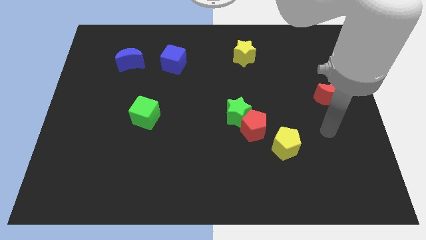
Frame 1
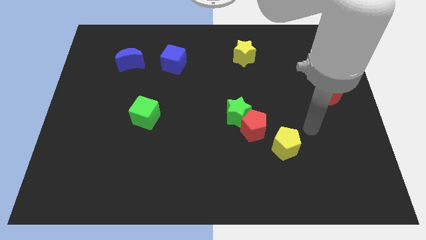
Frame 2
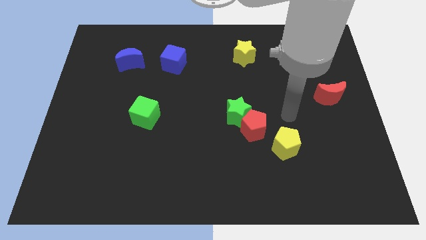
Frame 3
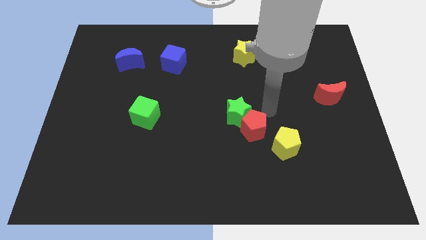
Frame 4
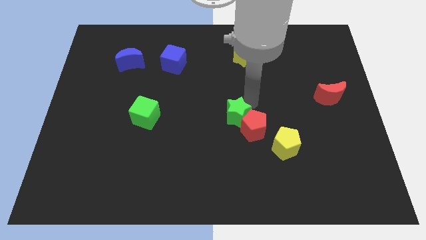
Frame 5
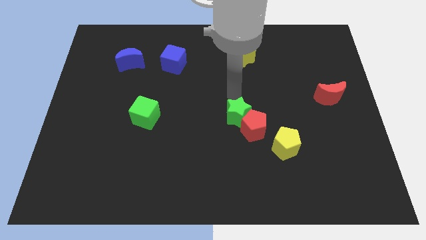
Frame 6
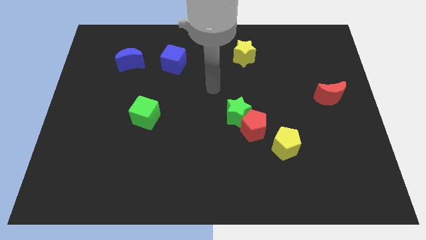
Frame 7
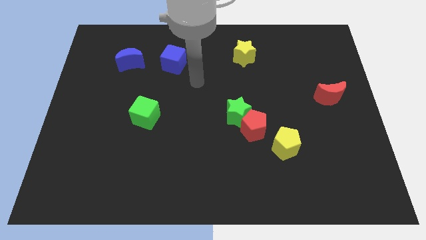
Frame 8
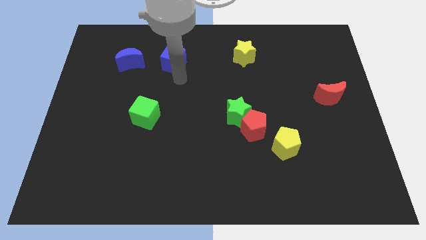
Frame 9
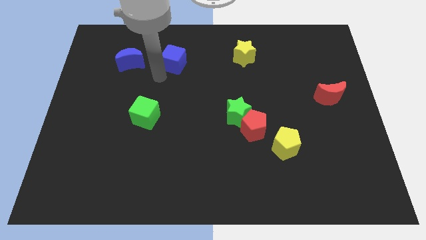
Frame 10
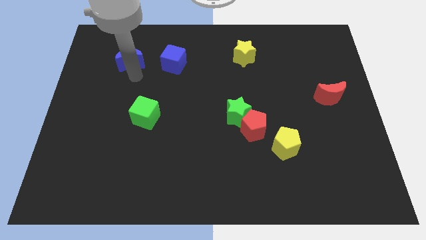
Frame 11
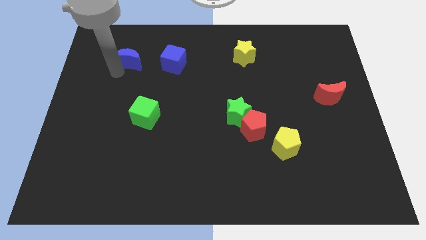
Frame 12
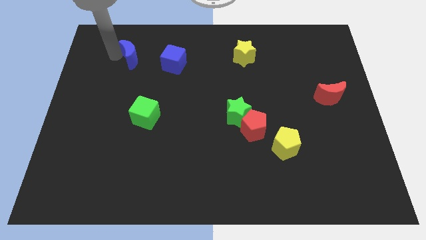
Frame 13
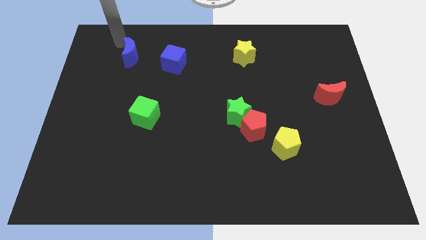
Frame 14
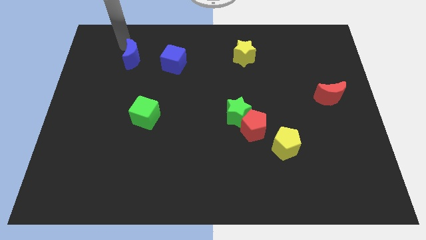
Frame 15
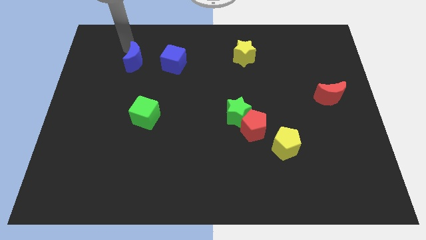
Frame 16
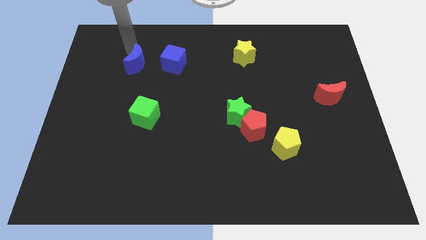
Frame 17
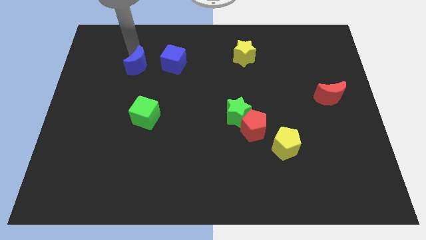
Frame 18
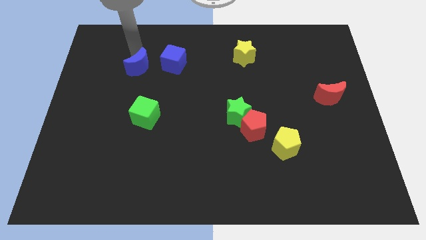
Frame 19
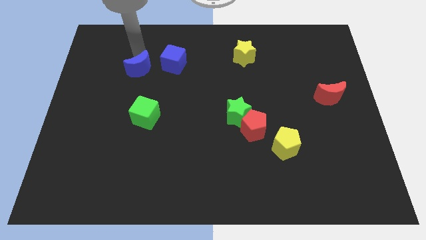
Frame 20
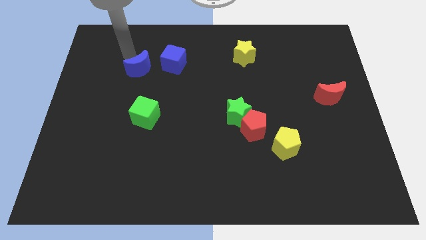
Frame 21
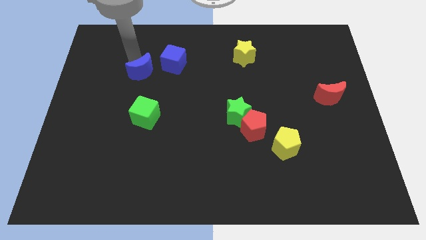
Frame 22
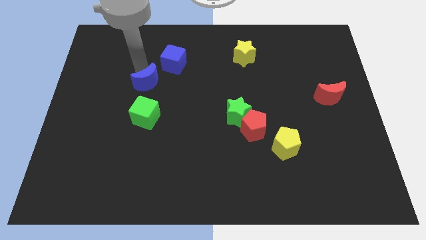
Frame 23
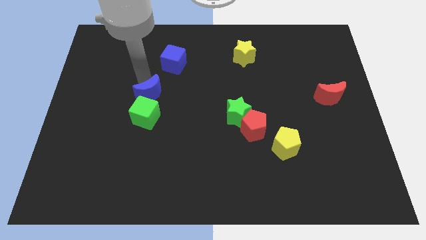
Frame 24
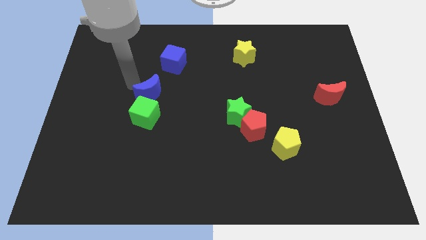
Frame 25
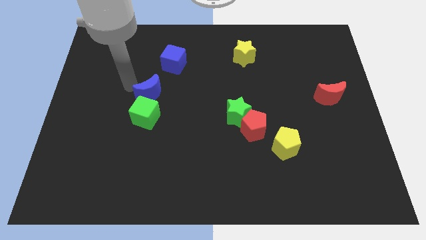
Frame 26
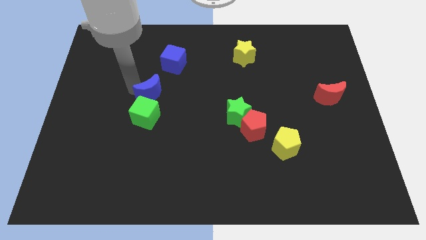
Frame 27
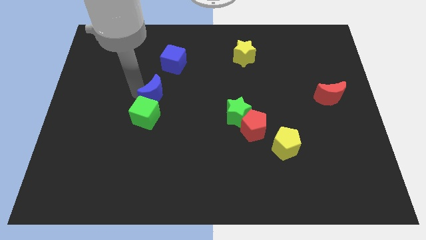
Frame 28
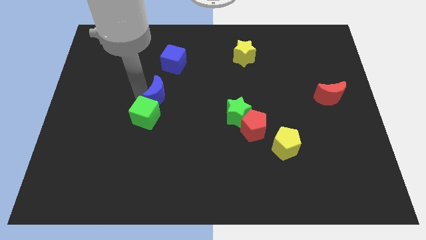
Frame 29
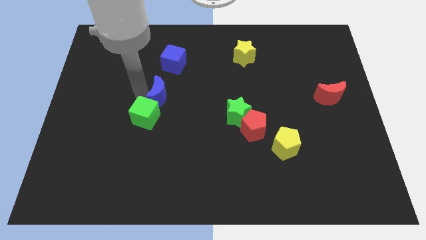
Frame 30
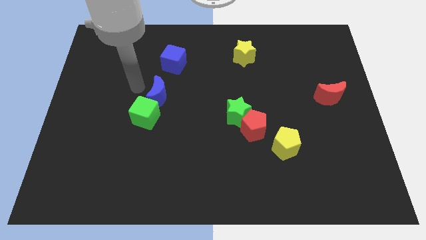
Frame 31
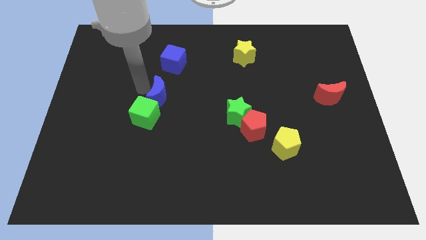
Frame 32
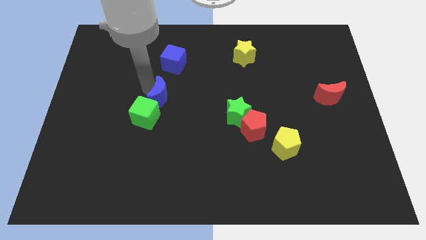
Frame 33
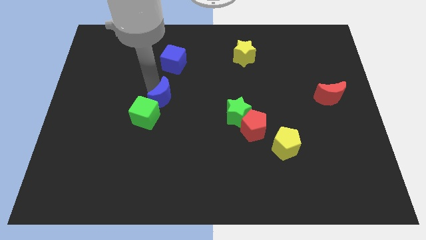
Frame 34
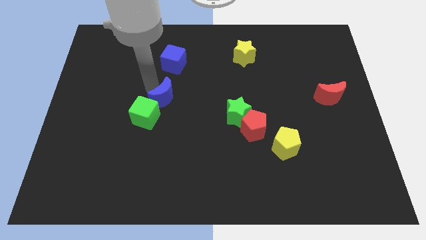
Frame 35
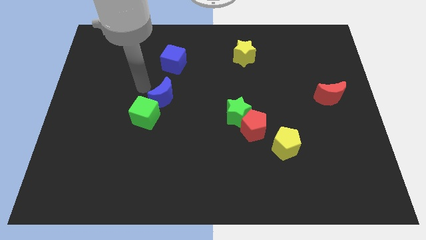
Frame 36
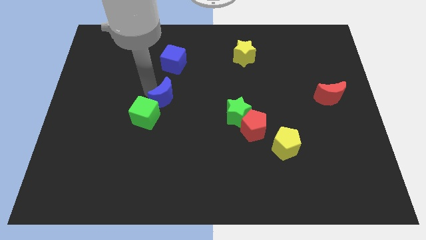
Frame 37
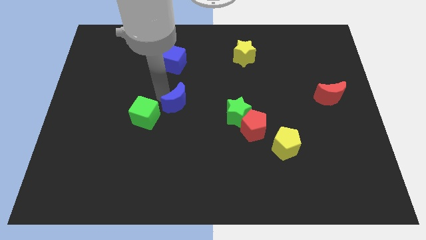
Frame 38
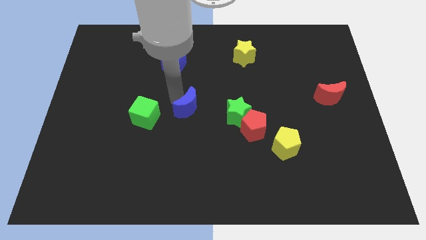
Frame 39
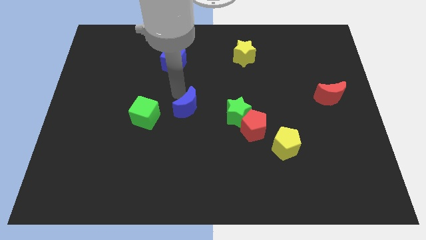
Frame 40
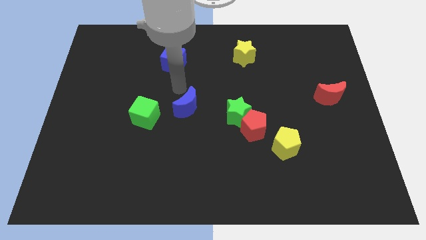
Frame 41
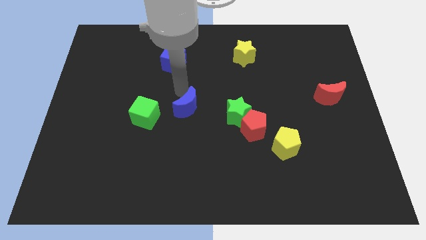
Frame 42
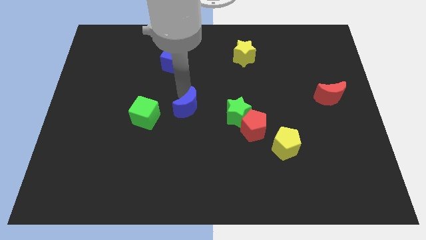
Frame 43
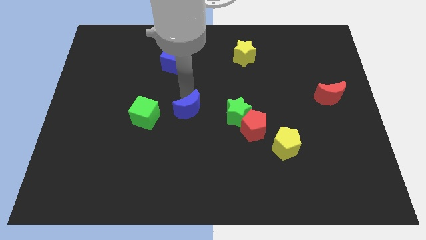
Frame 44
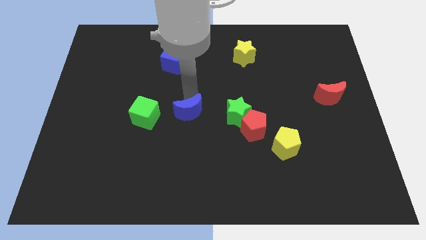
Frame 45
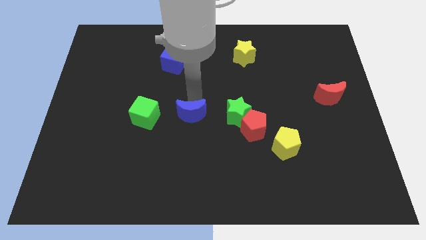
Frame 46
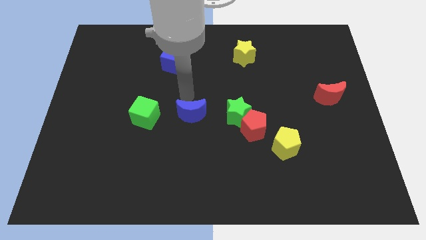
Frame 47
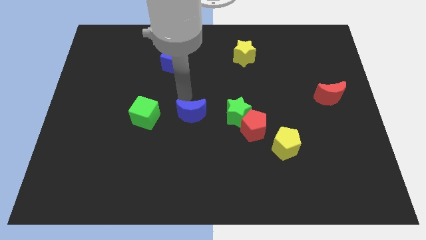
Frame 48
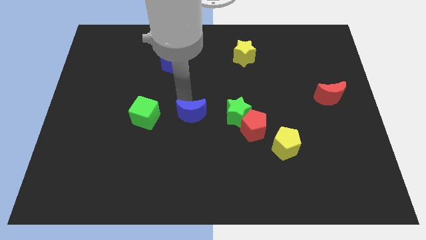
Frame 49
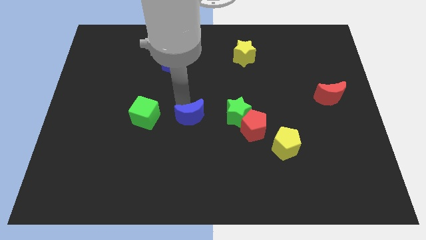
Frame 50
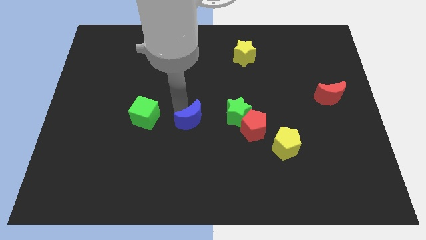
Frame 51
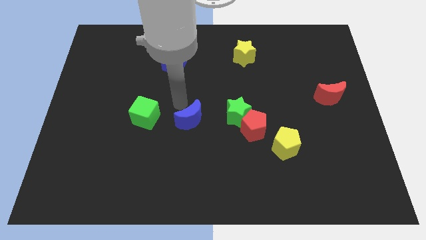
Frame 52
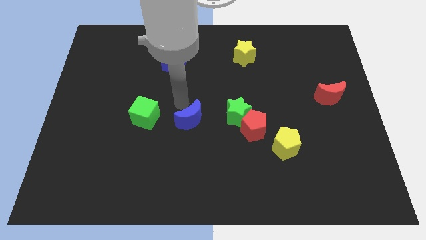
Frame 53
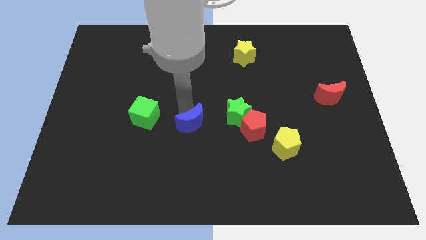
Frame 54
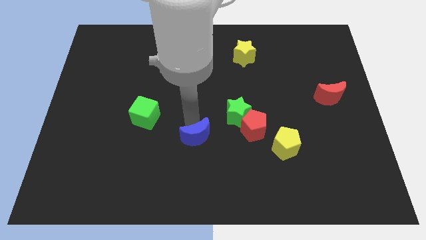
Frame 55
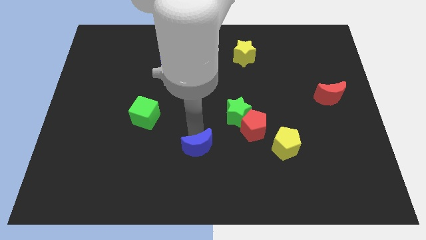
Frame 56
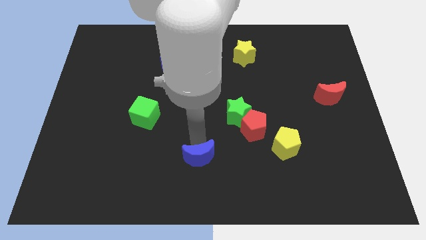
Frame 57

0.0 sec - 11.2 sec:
slide the blue moon to the bottom side

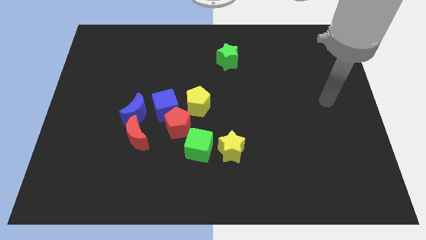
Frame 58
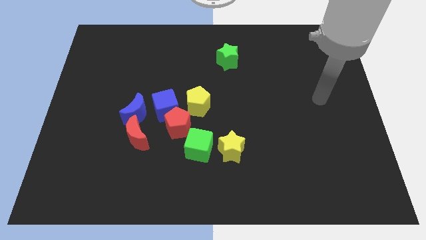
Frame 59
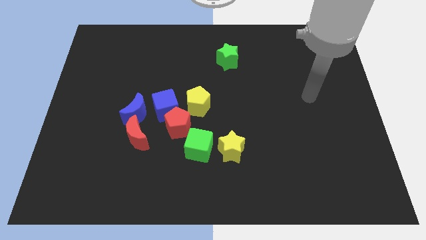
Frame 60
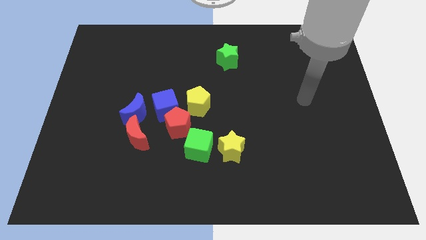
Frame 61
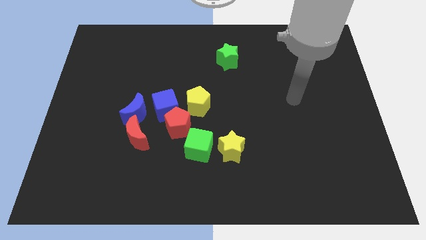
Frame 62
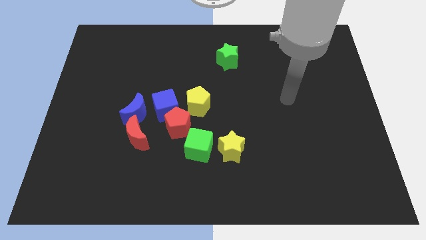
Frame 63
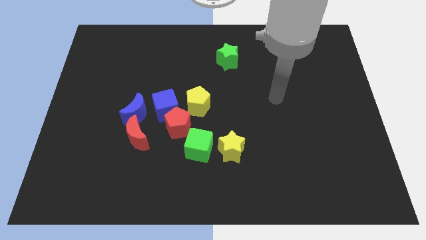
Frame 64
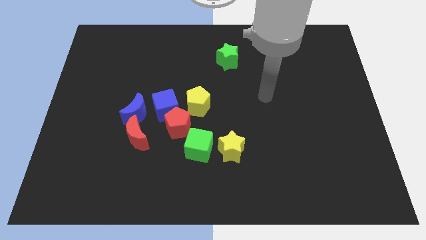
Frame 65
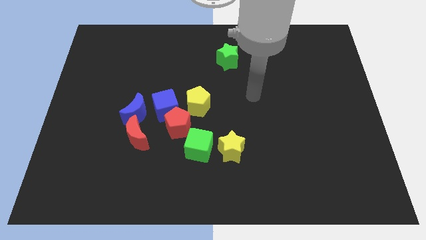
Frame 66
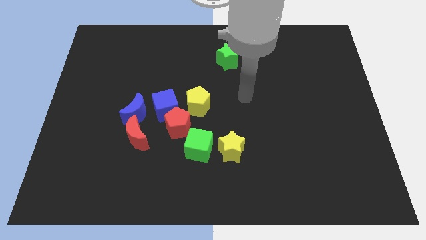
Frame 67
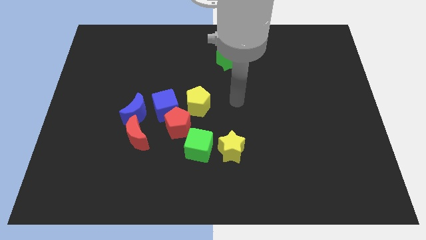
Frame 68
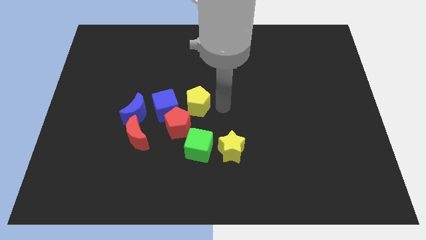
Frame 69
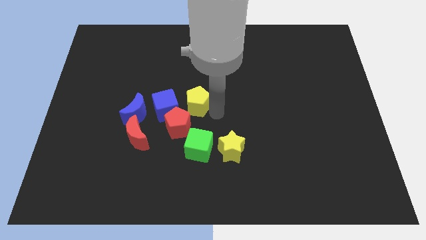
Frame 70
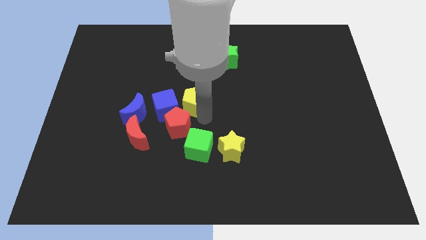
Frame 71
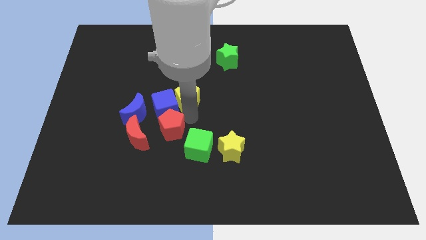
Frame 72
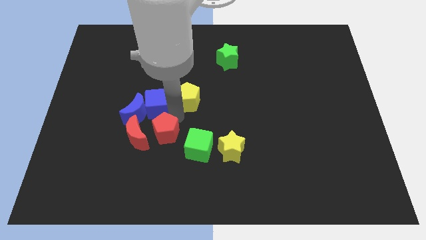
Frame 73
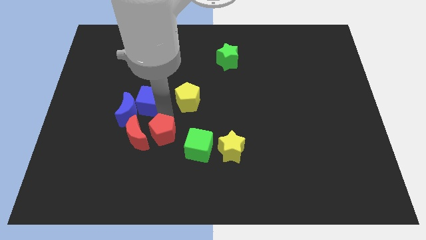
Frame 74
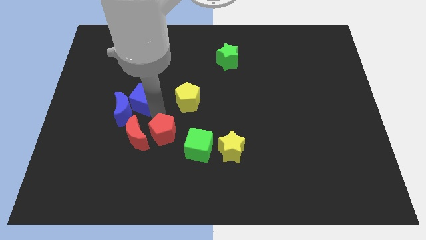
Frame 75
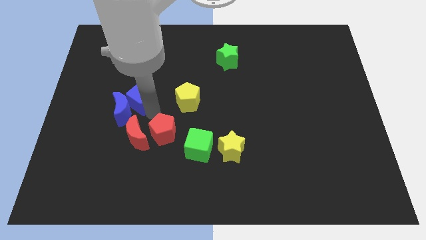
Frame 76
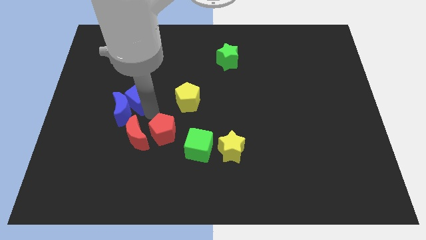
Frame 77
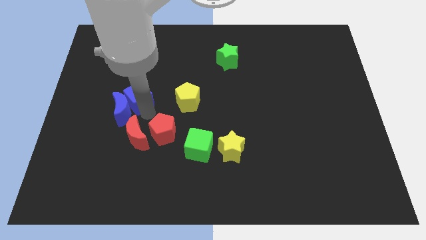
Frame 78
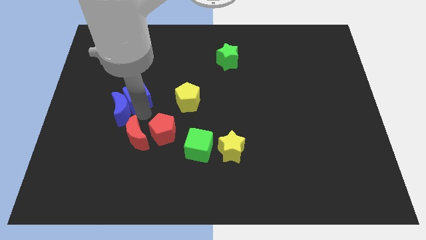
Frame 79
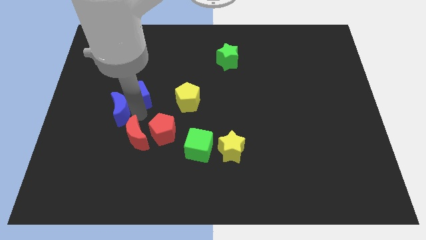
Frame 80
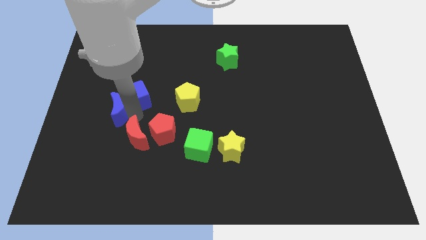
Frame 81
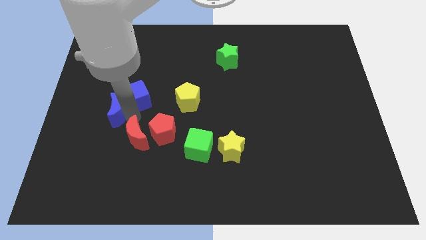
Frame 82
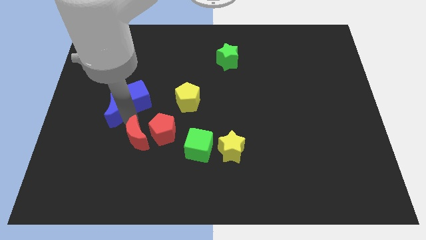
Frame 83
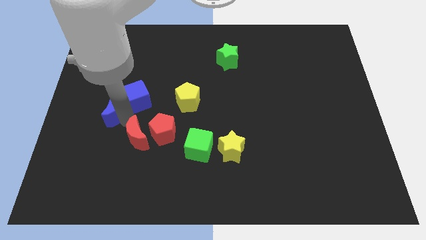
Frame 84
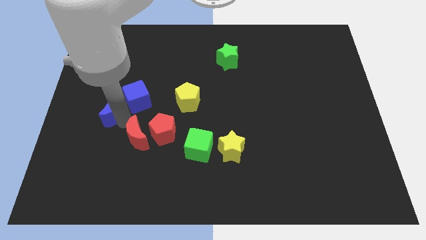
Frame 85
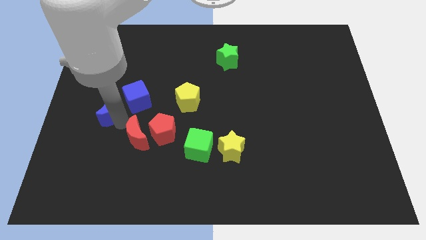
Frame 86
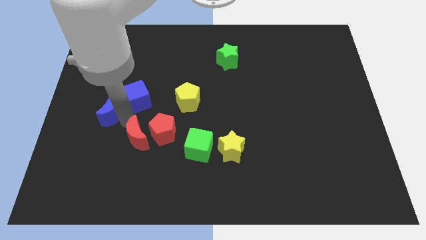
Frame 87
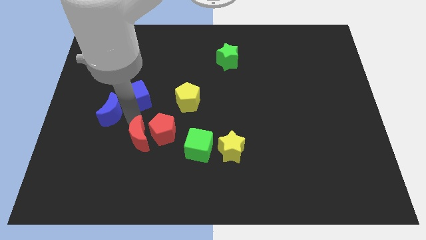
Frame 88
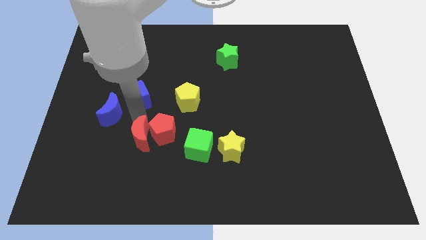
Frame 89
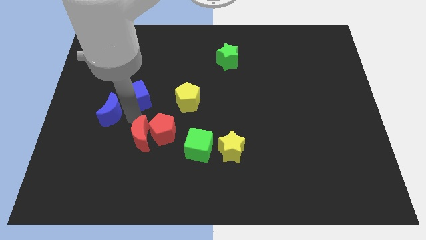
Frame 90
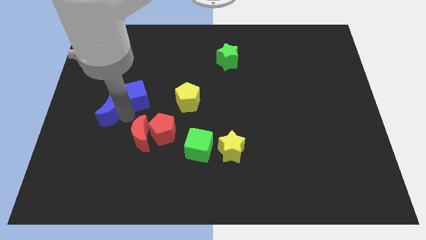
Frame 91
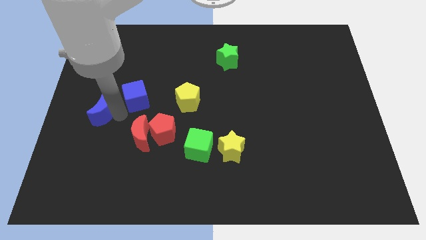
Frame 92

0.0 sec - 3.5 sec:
put the blue moon to the center left
